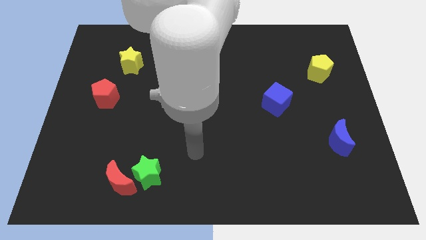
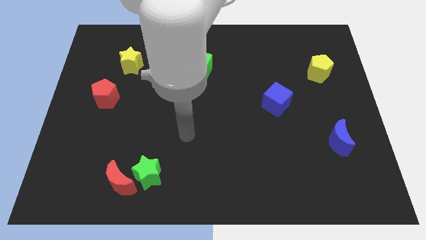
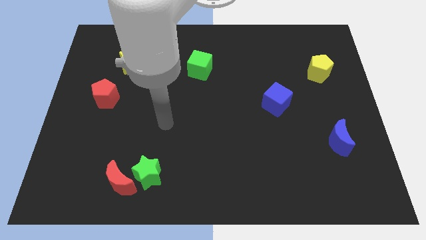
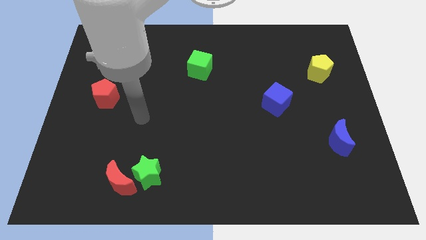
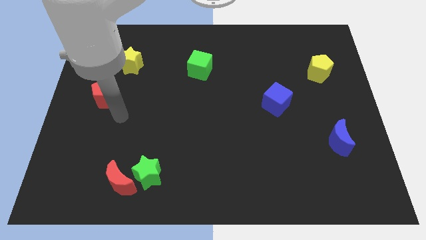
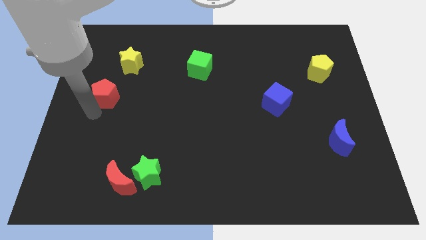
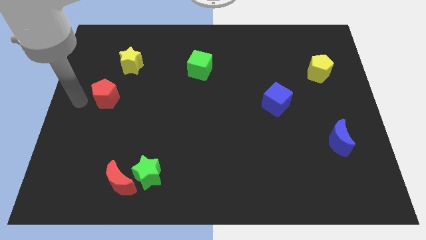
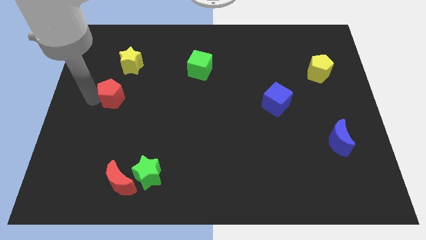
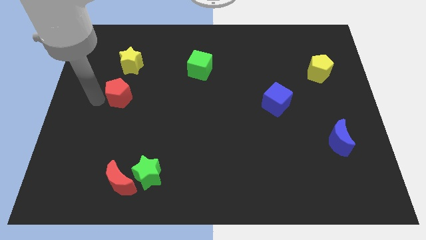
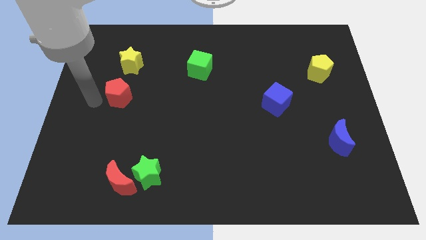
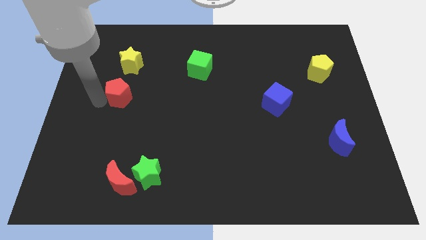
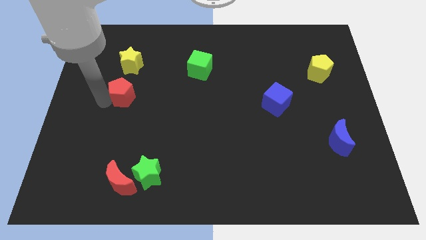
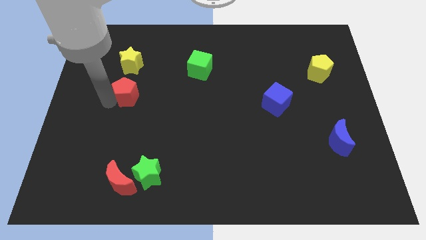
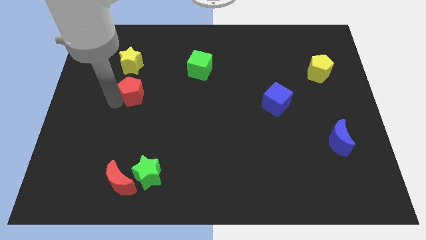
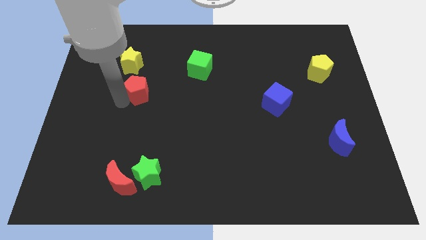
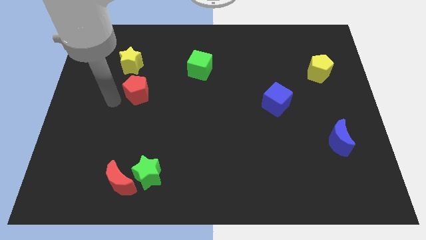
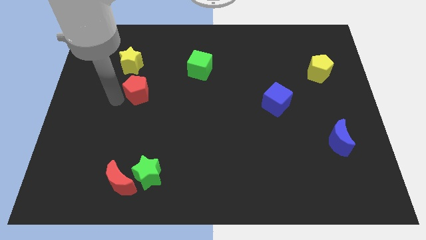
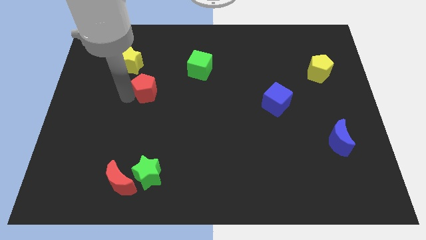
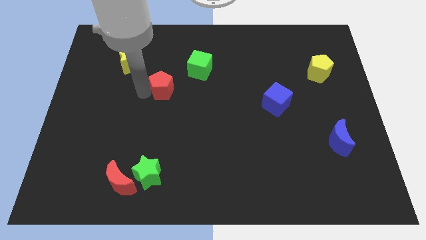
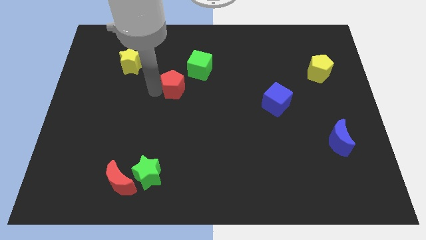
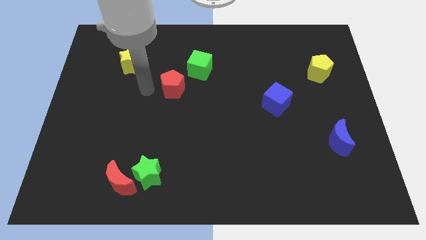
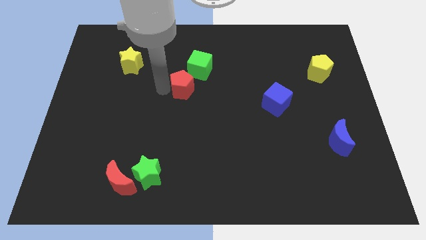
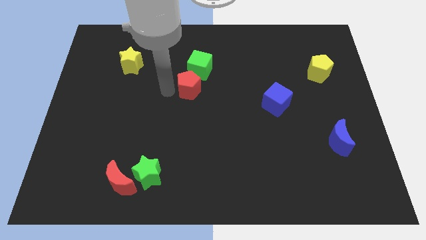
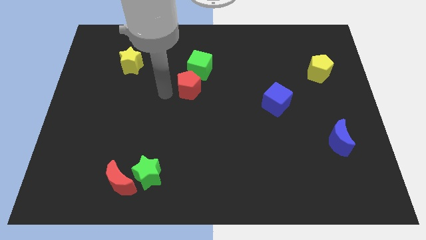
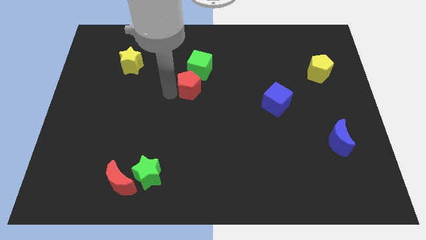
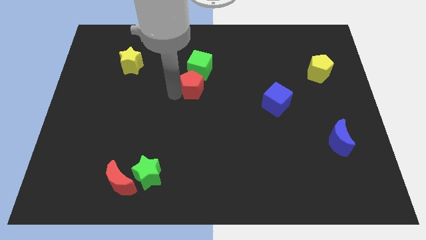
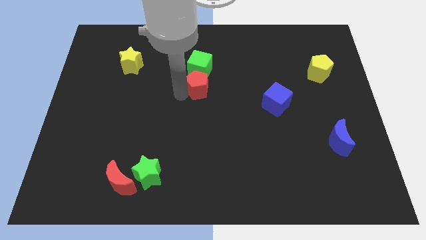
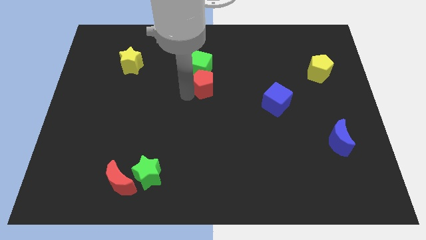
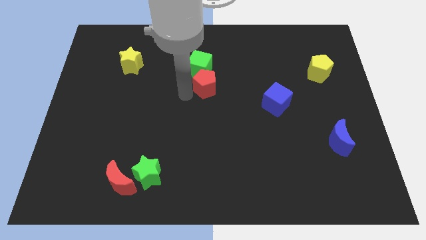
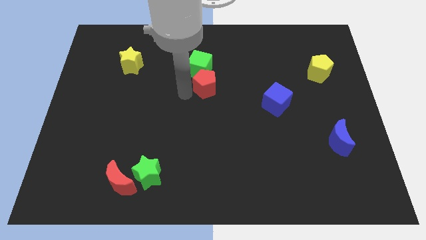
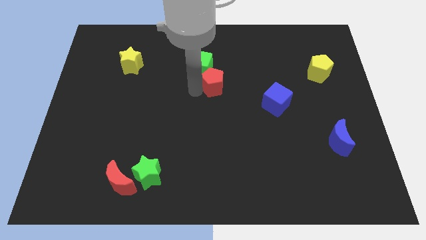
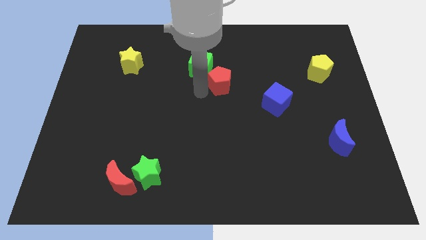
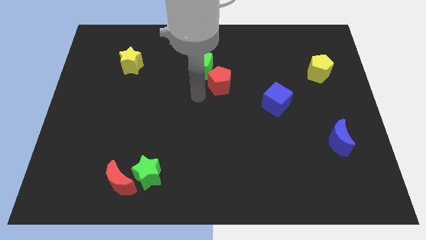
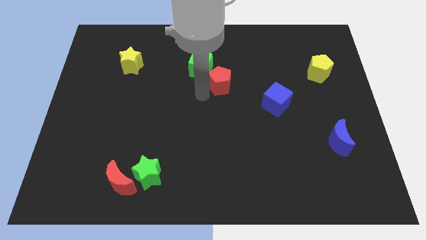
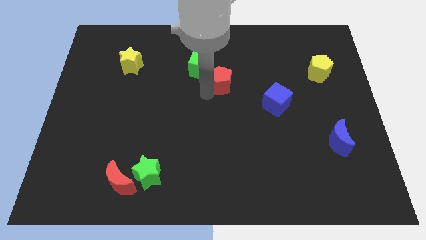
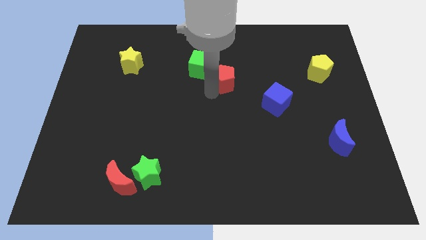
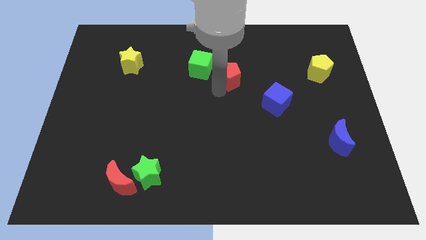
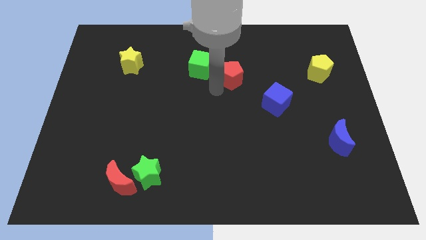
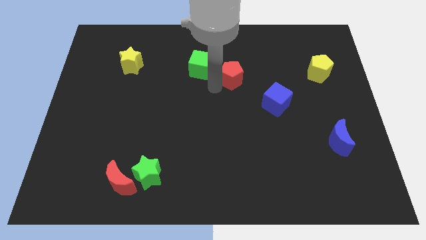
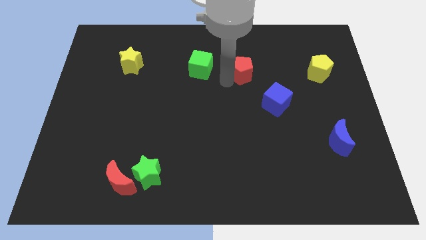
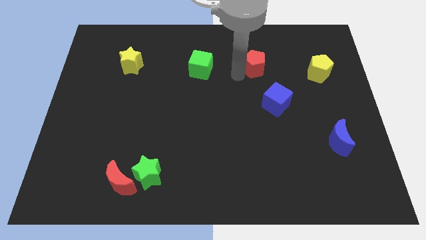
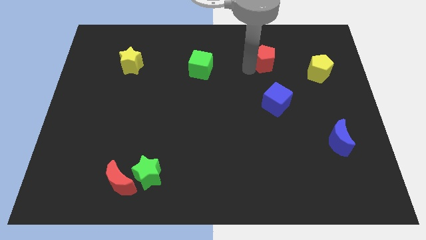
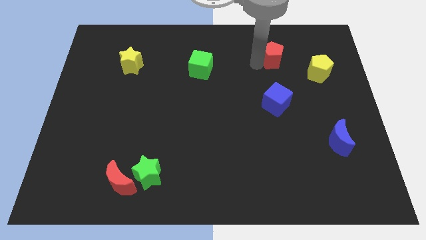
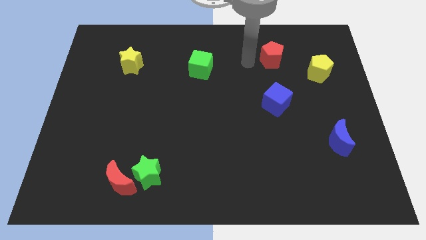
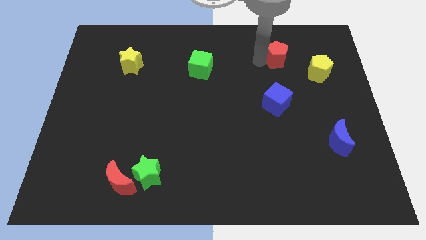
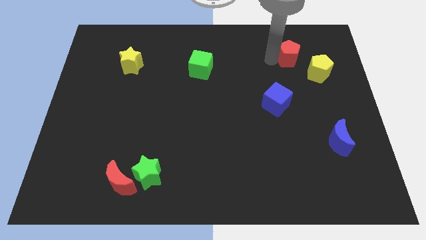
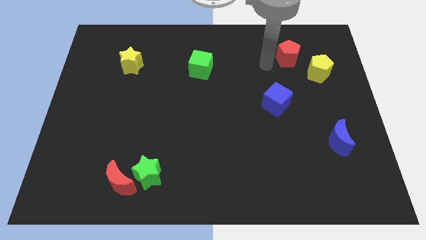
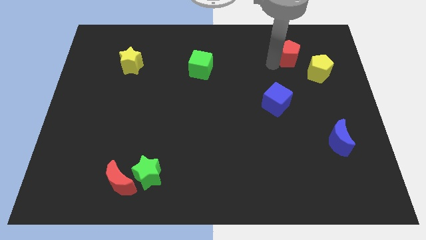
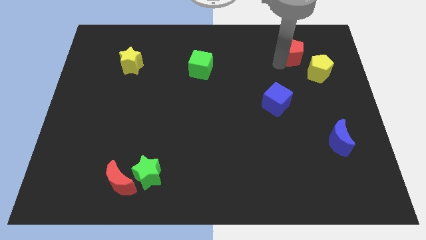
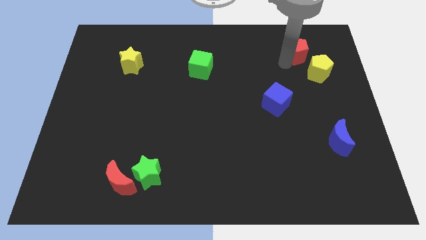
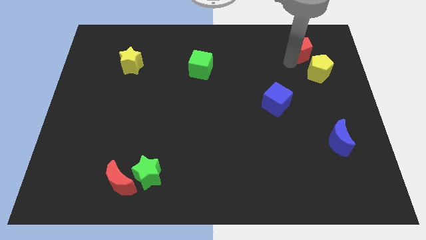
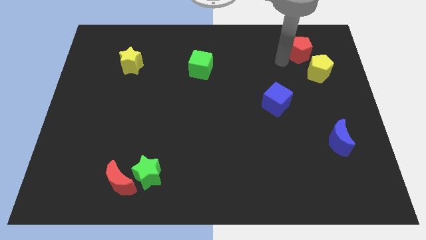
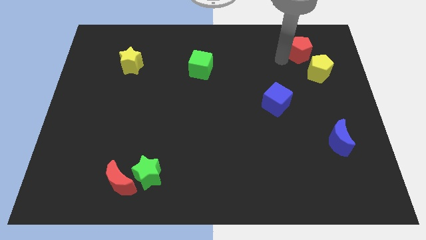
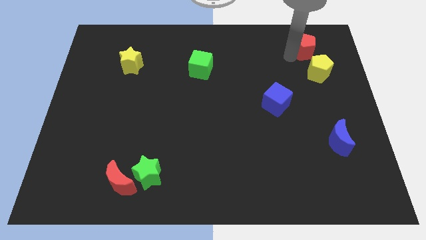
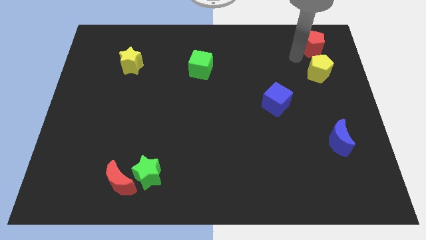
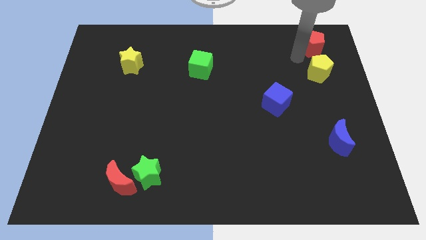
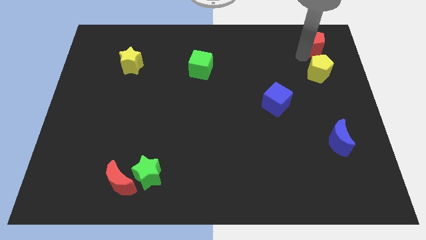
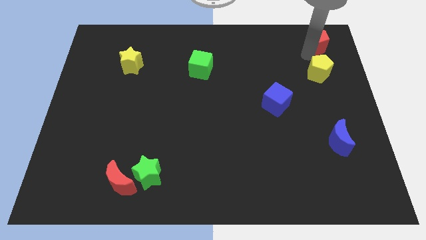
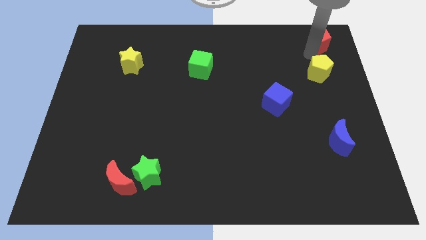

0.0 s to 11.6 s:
move the red pentagon to the top right of the board

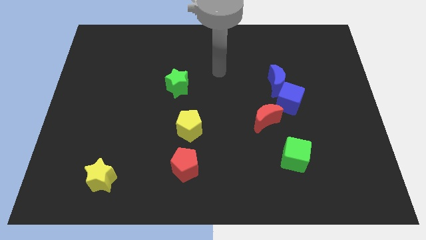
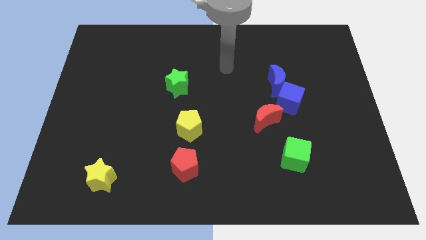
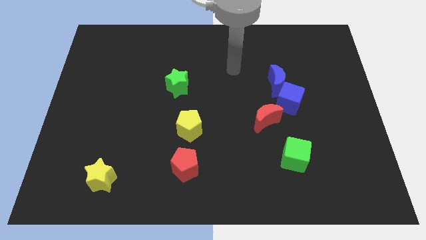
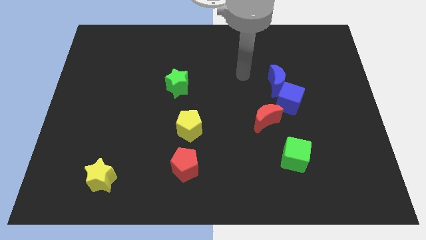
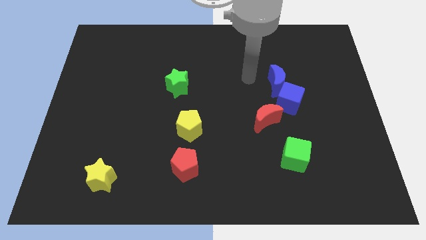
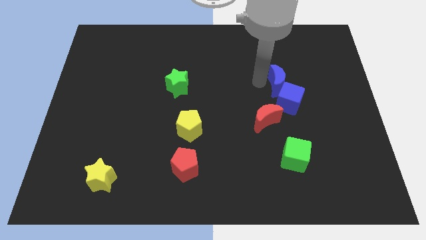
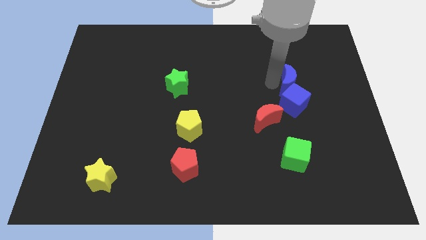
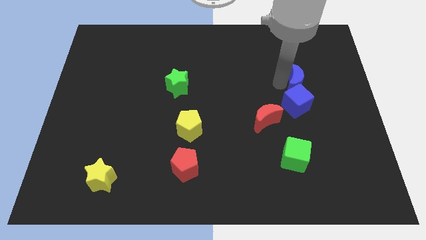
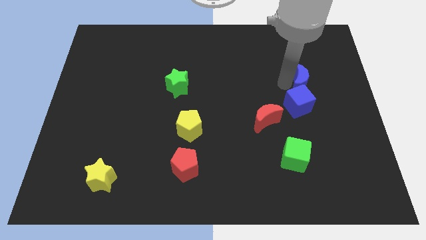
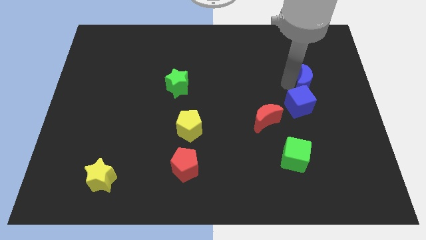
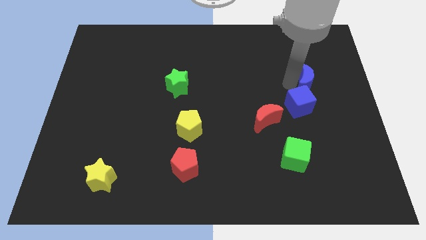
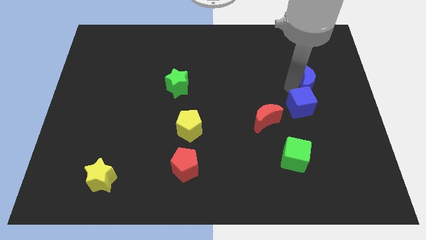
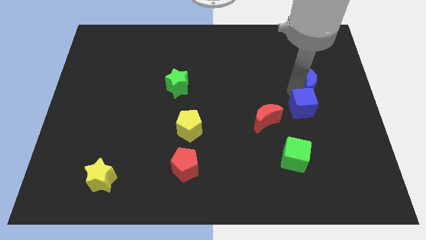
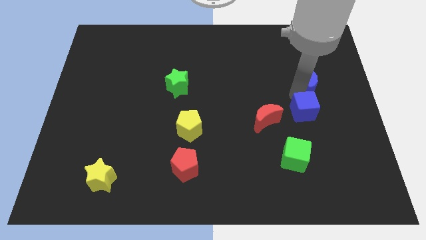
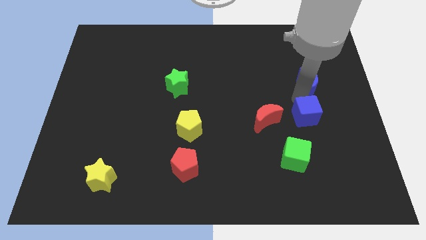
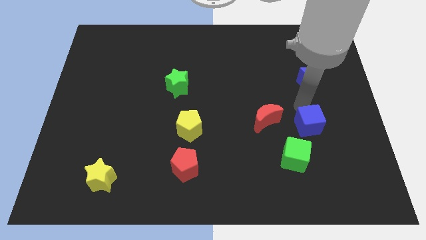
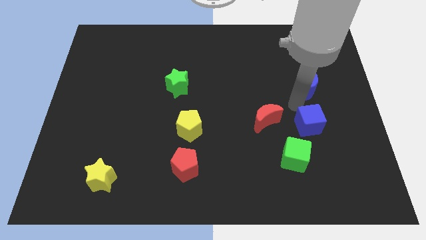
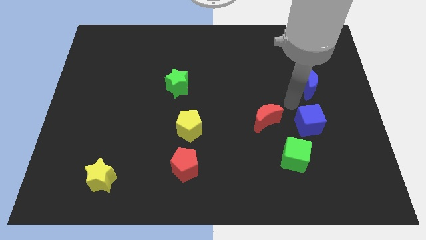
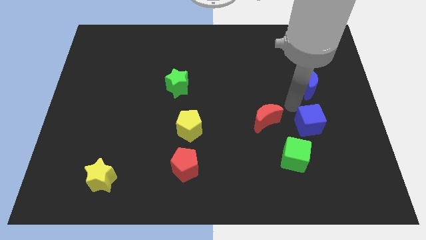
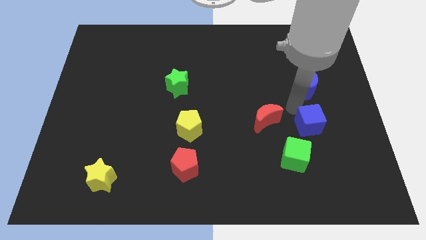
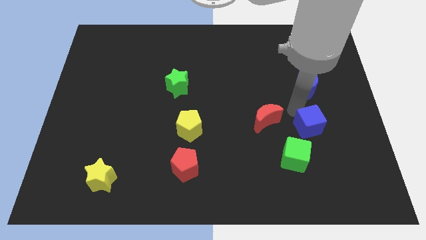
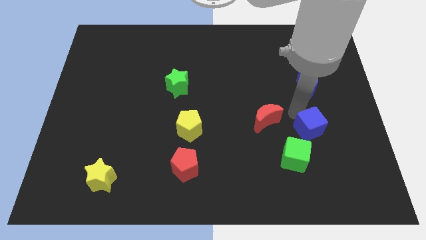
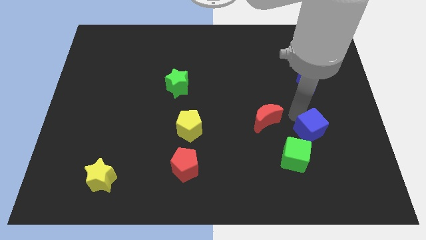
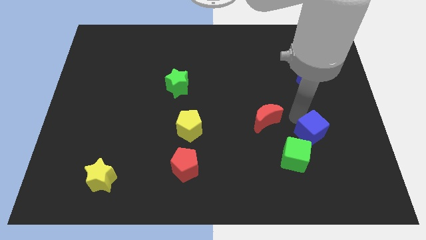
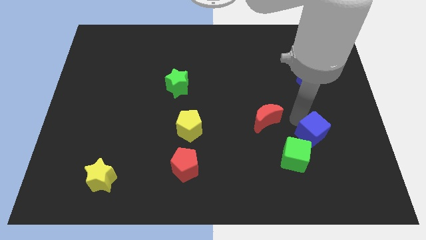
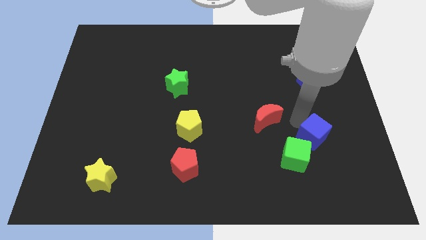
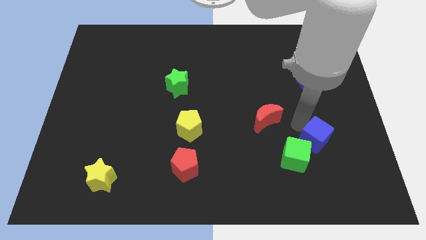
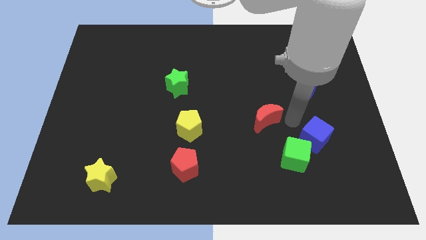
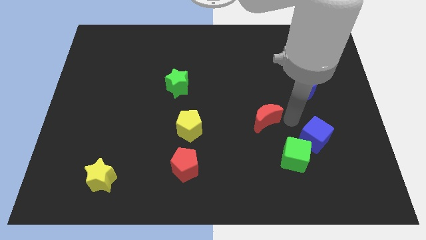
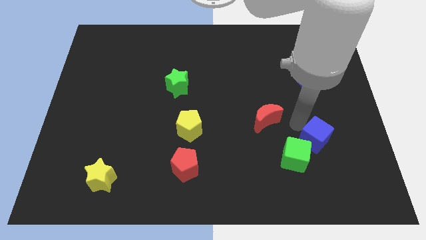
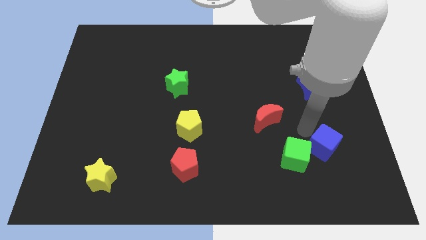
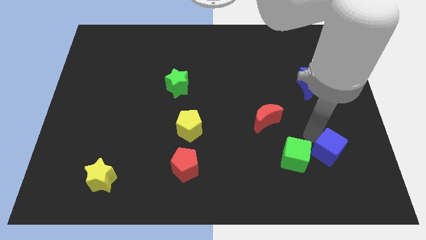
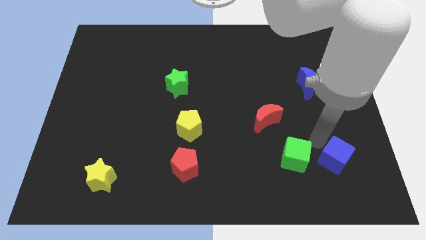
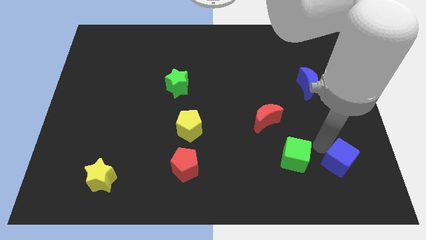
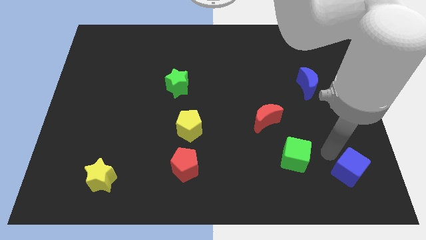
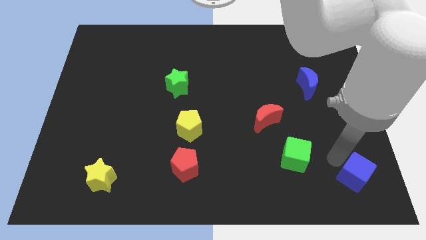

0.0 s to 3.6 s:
move the blue cube to the bottom right of the board
